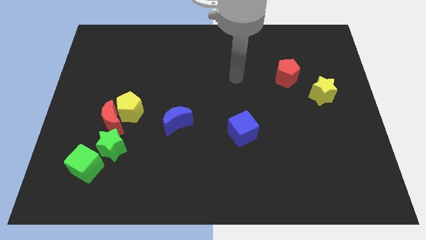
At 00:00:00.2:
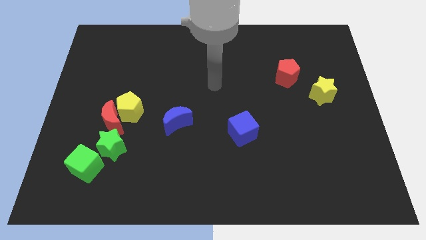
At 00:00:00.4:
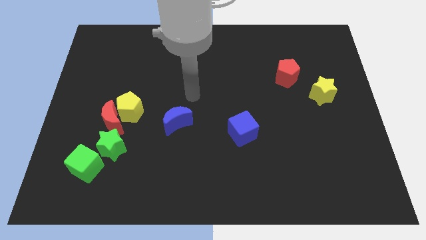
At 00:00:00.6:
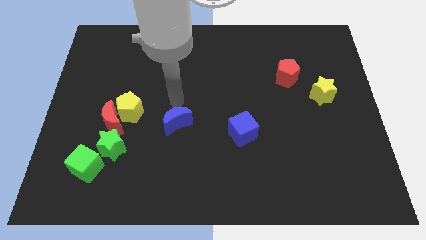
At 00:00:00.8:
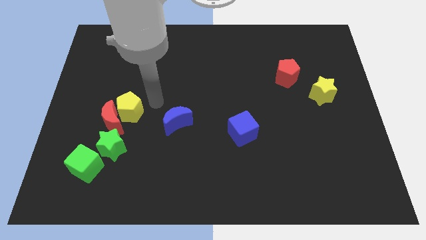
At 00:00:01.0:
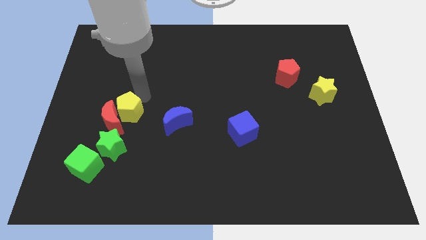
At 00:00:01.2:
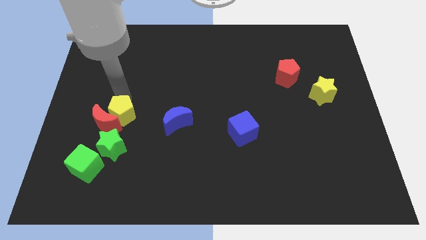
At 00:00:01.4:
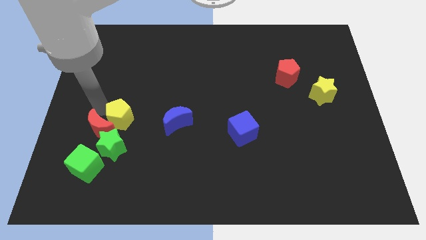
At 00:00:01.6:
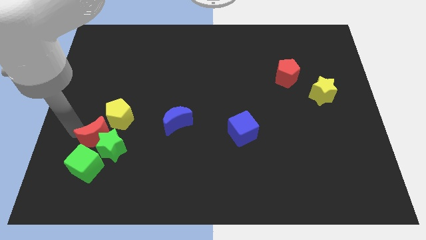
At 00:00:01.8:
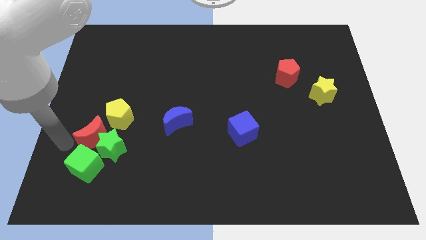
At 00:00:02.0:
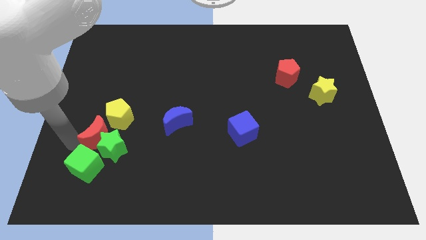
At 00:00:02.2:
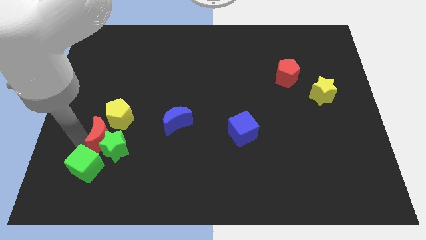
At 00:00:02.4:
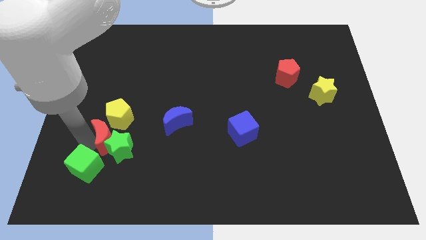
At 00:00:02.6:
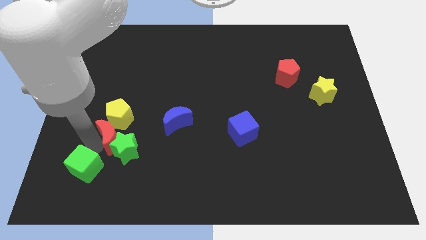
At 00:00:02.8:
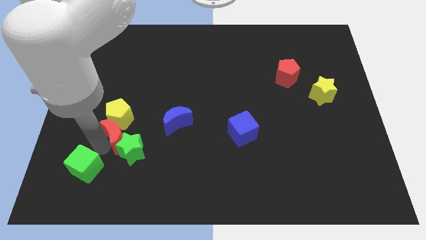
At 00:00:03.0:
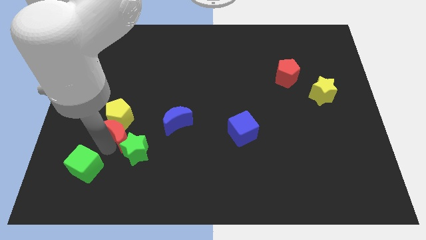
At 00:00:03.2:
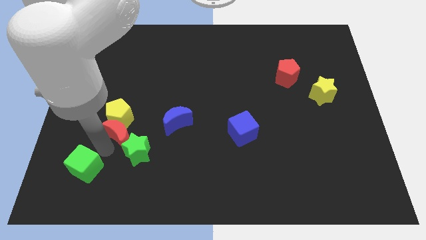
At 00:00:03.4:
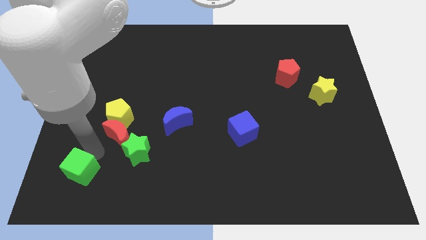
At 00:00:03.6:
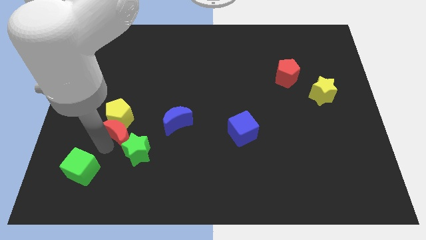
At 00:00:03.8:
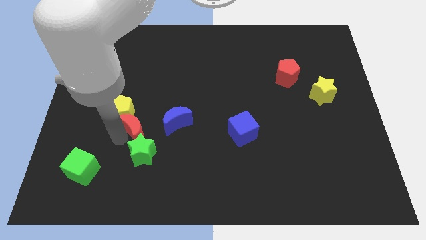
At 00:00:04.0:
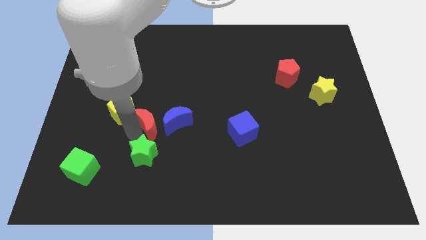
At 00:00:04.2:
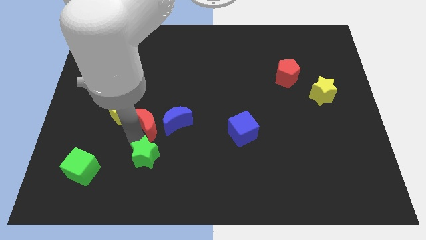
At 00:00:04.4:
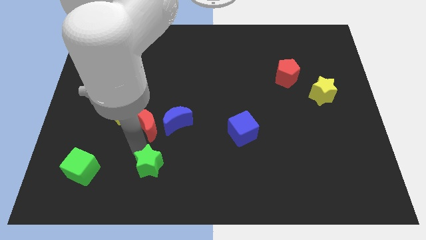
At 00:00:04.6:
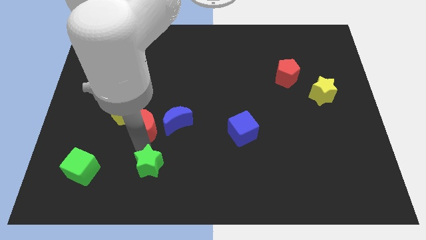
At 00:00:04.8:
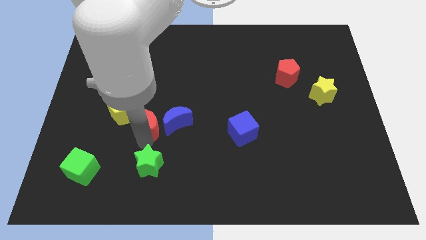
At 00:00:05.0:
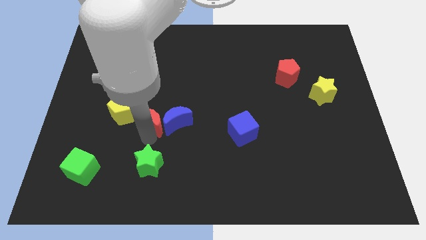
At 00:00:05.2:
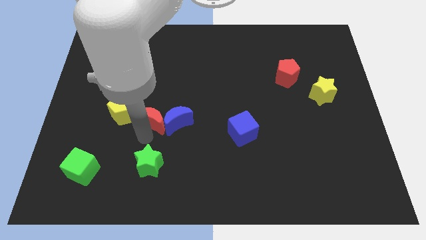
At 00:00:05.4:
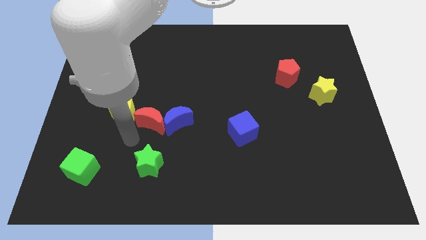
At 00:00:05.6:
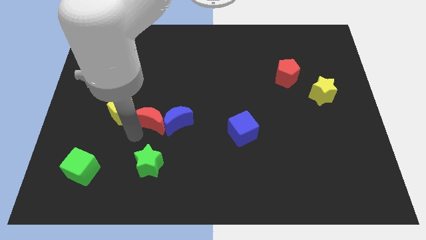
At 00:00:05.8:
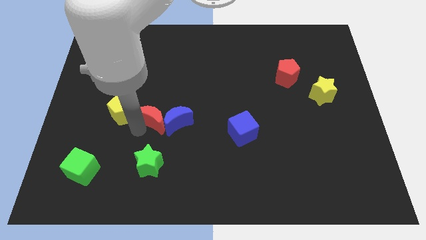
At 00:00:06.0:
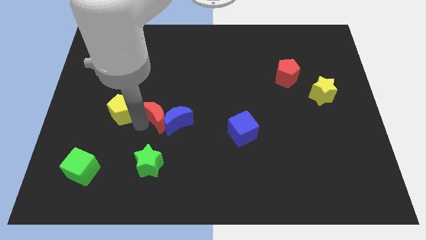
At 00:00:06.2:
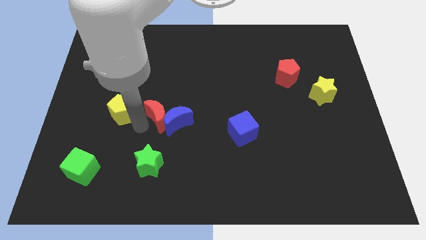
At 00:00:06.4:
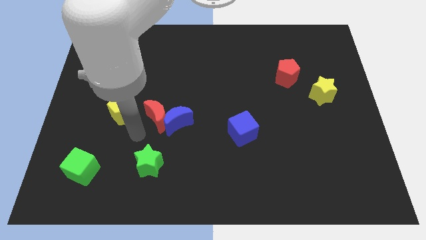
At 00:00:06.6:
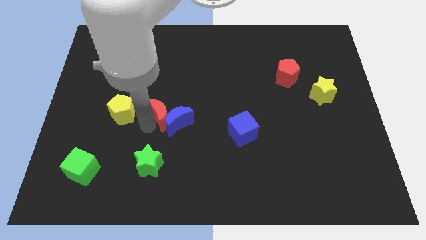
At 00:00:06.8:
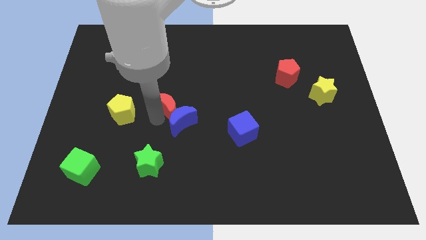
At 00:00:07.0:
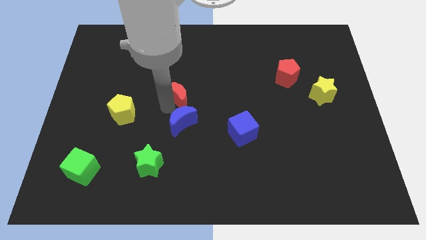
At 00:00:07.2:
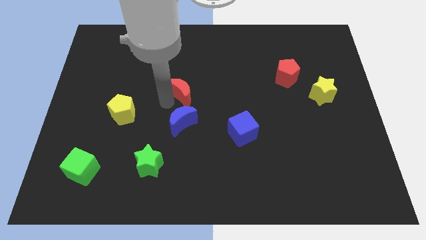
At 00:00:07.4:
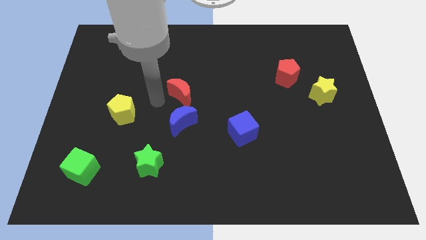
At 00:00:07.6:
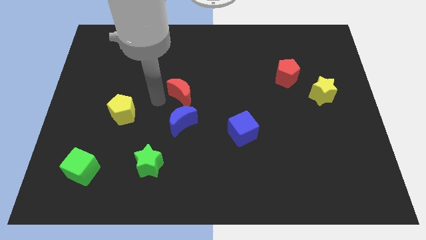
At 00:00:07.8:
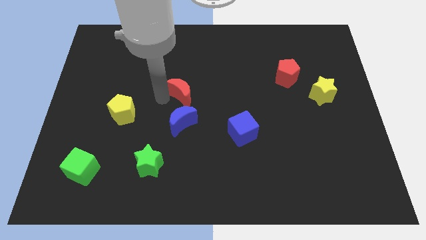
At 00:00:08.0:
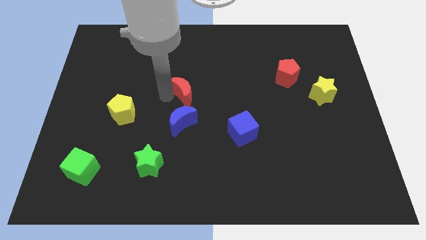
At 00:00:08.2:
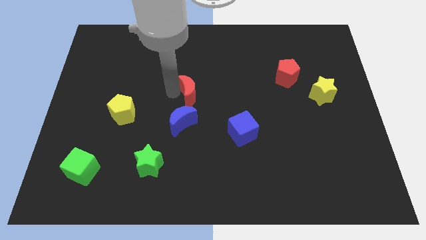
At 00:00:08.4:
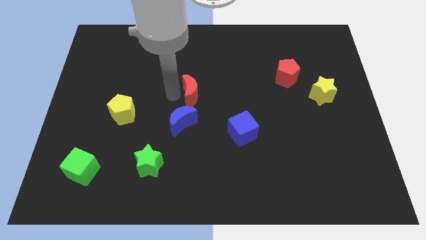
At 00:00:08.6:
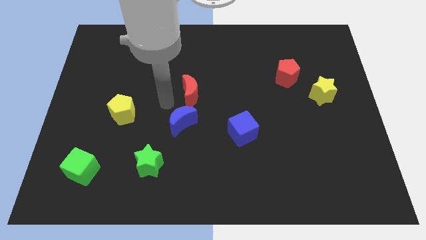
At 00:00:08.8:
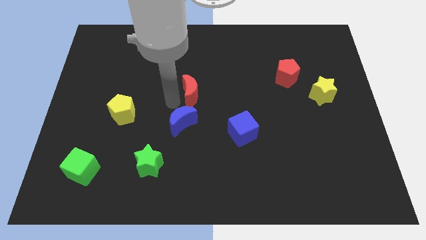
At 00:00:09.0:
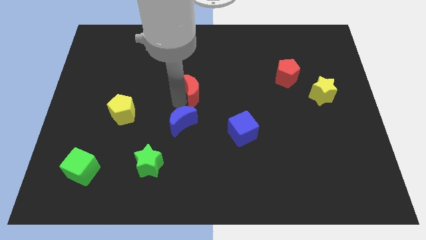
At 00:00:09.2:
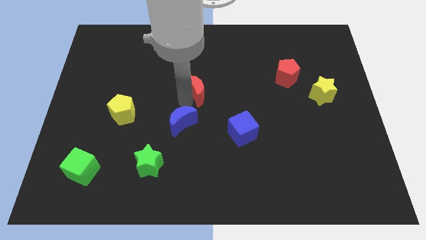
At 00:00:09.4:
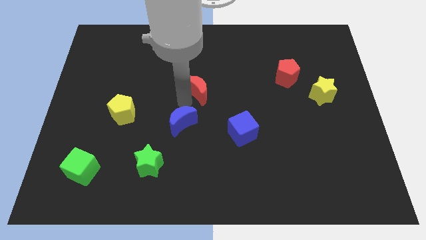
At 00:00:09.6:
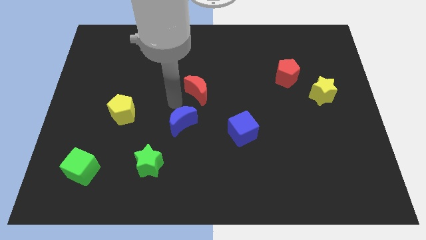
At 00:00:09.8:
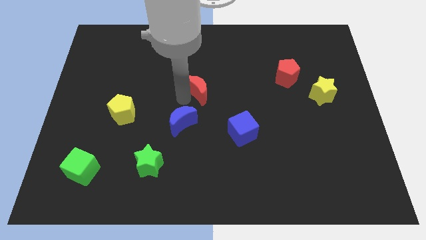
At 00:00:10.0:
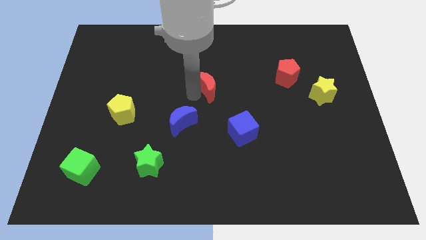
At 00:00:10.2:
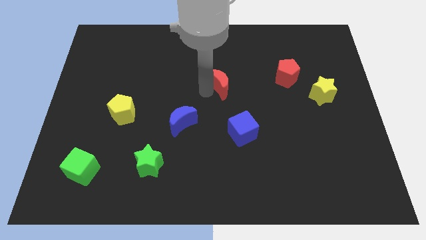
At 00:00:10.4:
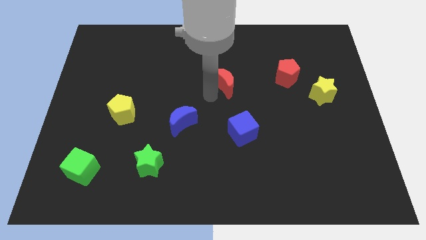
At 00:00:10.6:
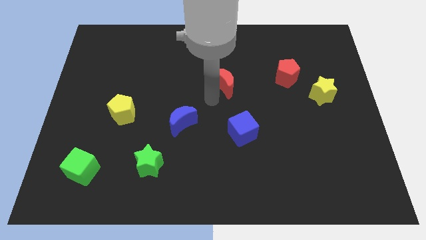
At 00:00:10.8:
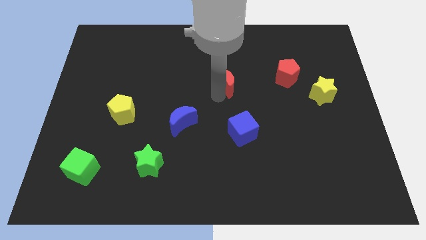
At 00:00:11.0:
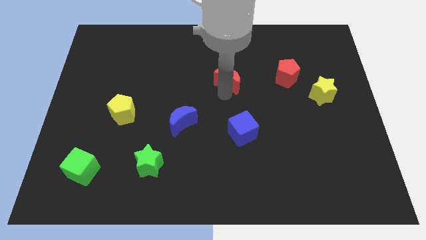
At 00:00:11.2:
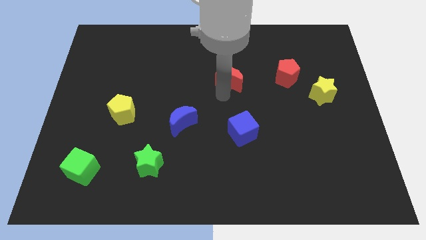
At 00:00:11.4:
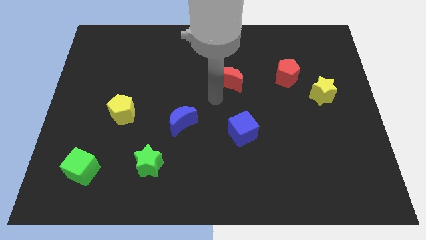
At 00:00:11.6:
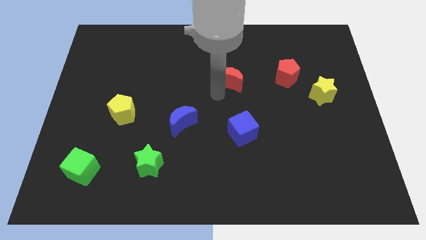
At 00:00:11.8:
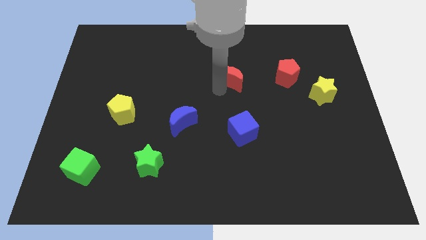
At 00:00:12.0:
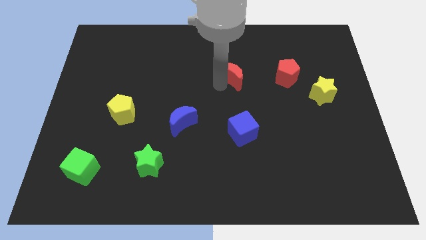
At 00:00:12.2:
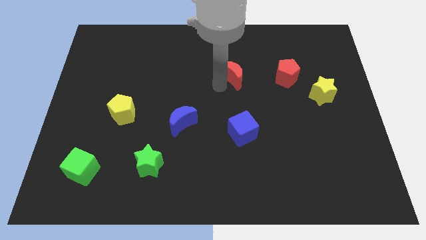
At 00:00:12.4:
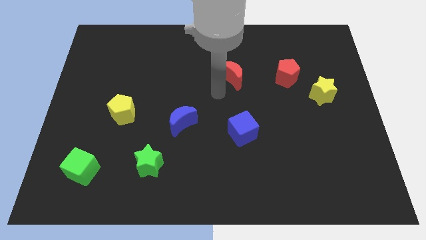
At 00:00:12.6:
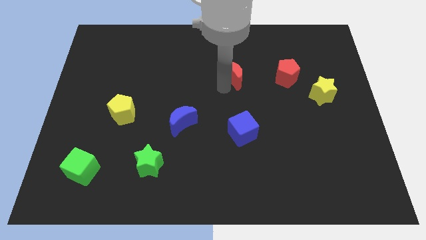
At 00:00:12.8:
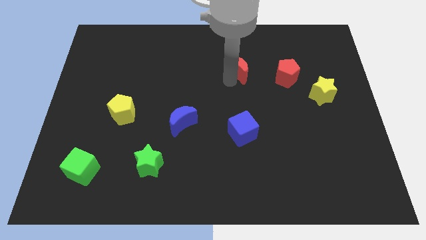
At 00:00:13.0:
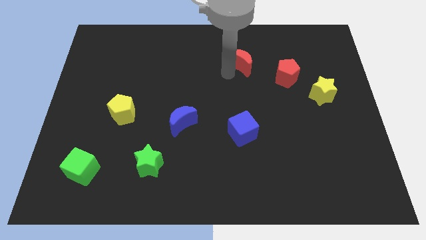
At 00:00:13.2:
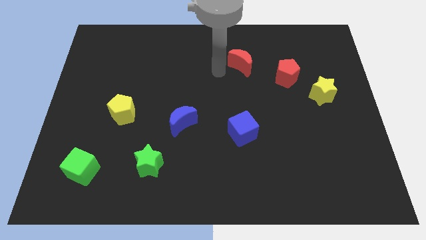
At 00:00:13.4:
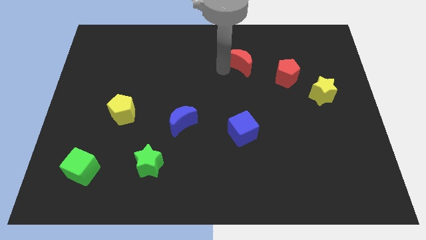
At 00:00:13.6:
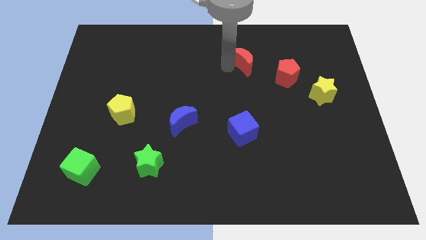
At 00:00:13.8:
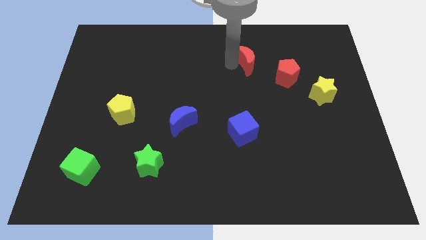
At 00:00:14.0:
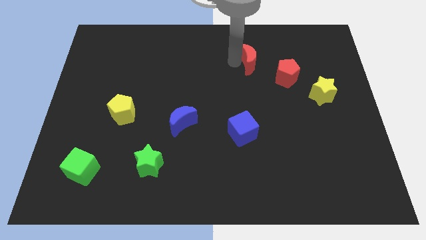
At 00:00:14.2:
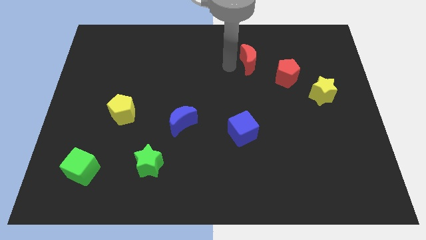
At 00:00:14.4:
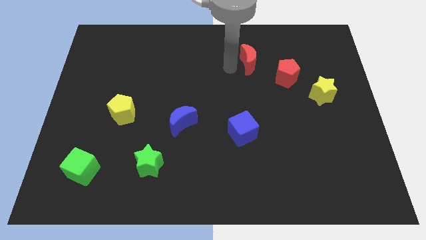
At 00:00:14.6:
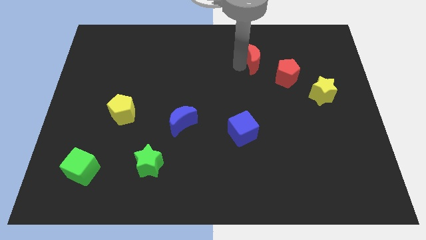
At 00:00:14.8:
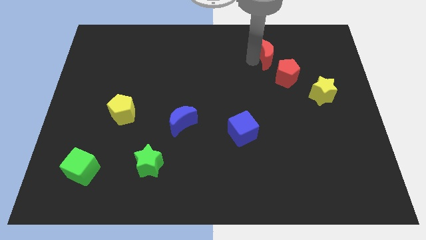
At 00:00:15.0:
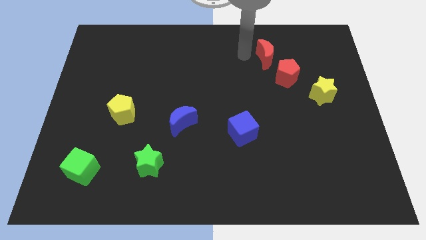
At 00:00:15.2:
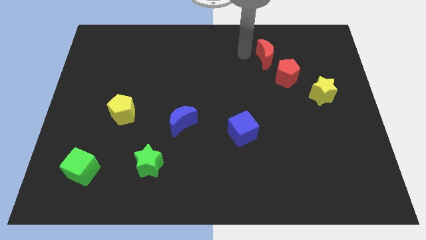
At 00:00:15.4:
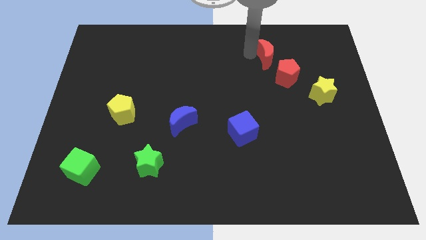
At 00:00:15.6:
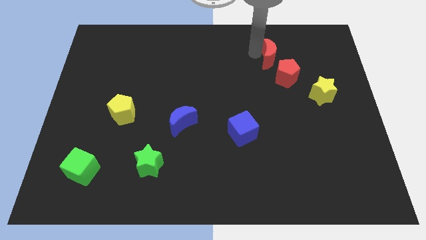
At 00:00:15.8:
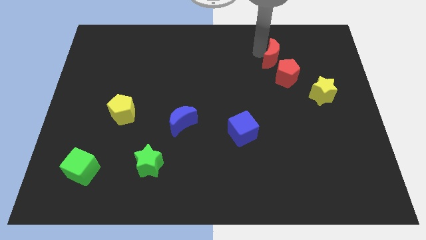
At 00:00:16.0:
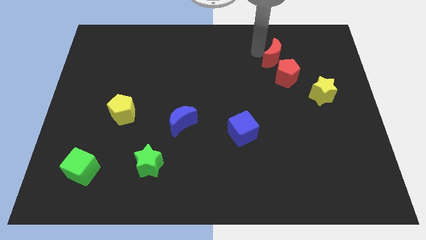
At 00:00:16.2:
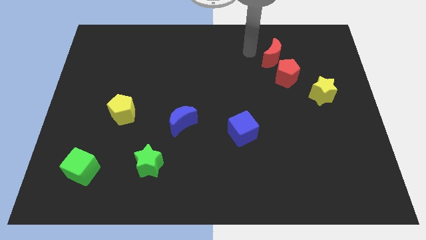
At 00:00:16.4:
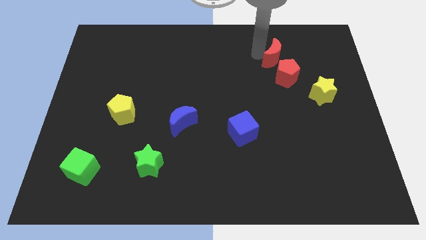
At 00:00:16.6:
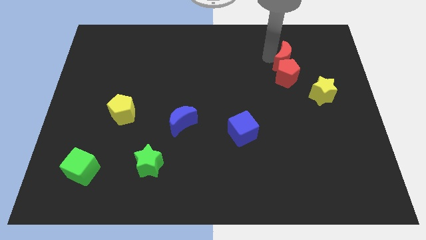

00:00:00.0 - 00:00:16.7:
slide the red moon to the top right of the red pentagon
